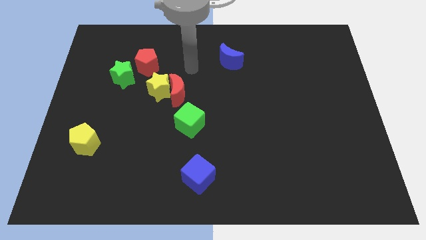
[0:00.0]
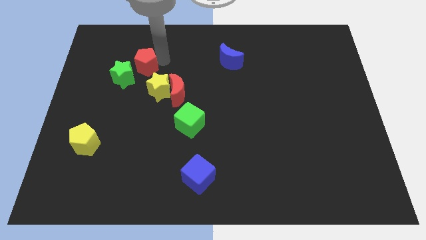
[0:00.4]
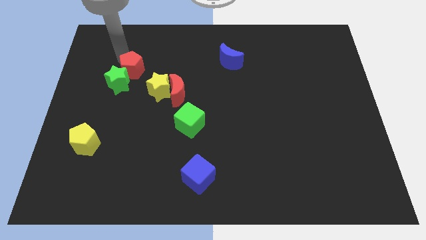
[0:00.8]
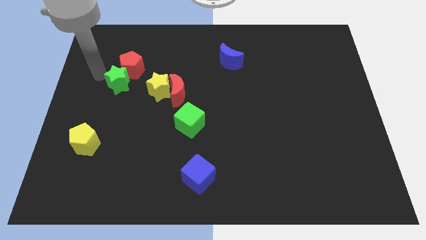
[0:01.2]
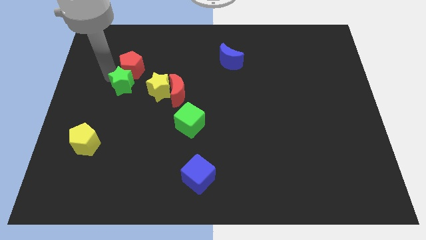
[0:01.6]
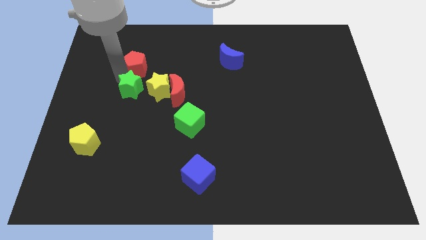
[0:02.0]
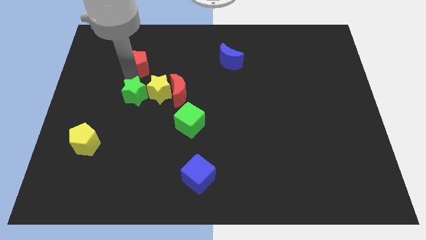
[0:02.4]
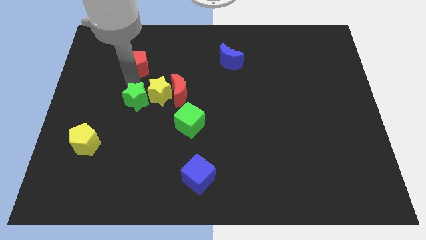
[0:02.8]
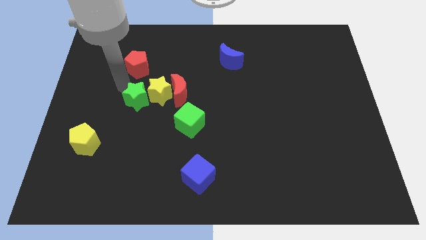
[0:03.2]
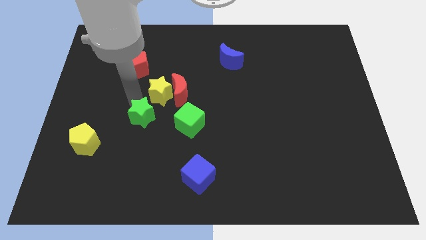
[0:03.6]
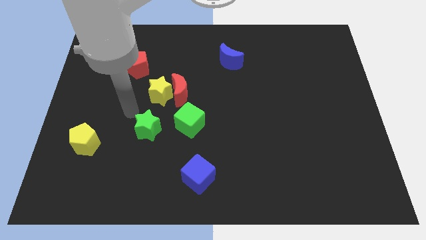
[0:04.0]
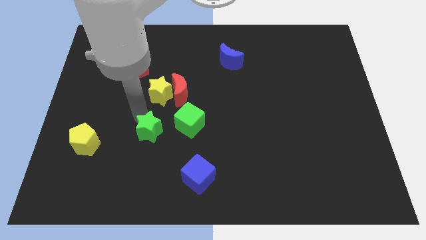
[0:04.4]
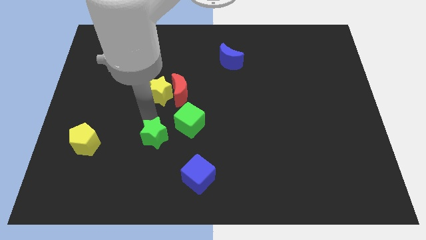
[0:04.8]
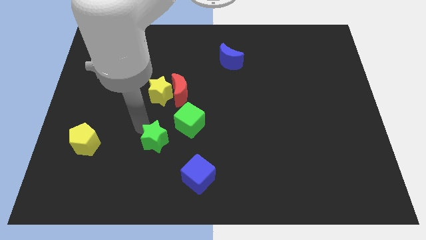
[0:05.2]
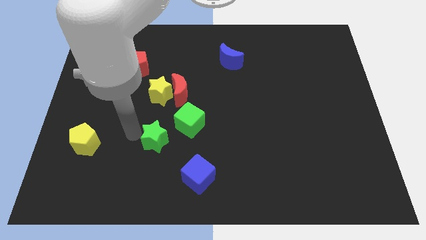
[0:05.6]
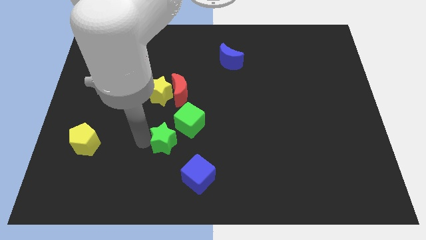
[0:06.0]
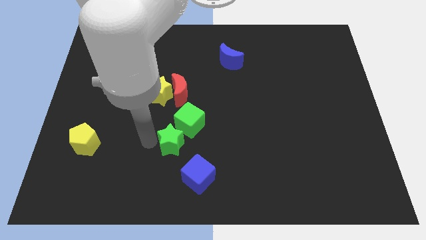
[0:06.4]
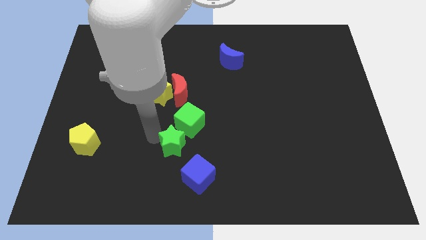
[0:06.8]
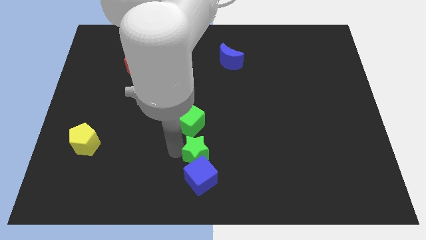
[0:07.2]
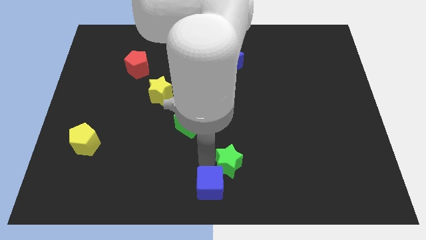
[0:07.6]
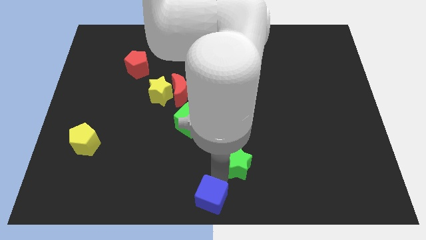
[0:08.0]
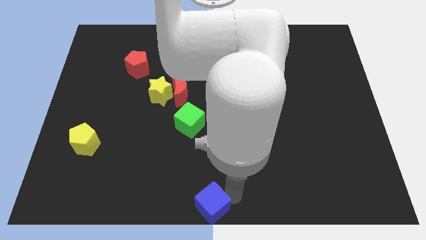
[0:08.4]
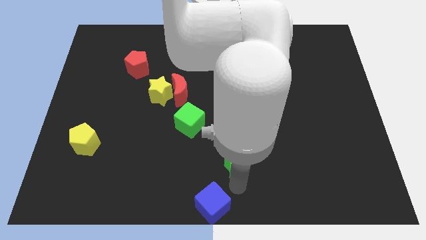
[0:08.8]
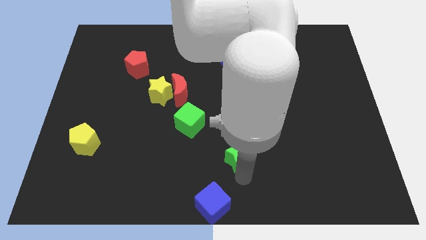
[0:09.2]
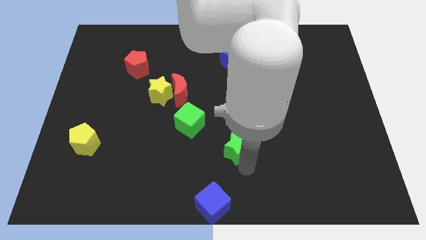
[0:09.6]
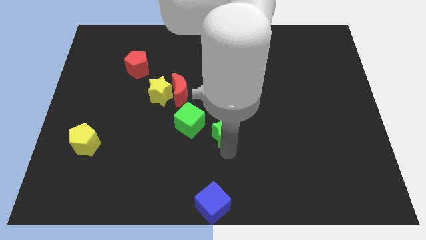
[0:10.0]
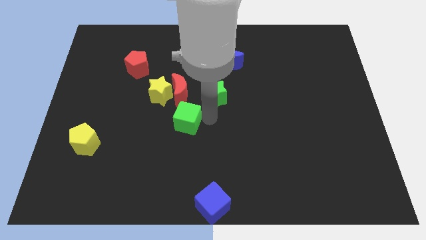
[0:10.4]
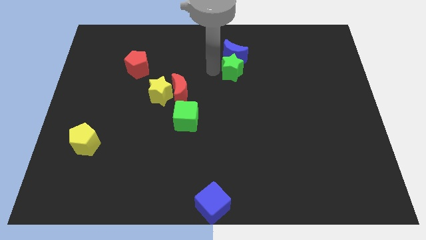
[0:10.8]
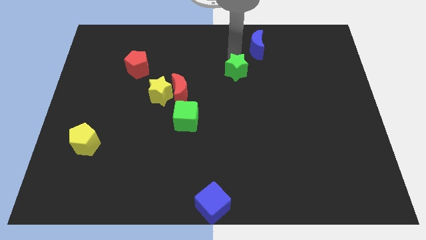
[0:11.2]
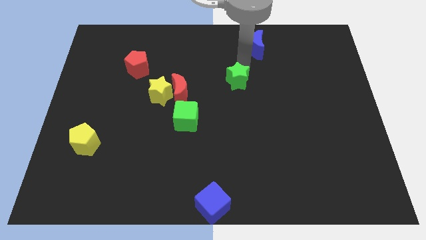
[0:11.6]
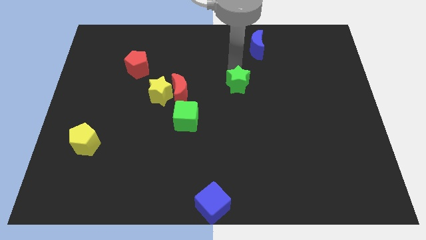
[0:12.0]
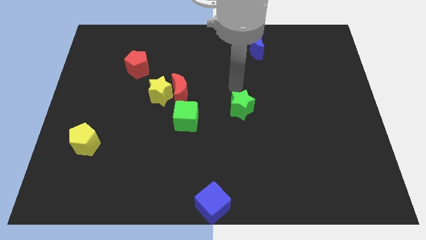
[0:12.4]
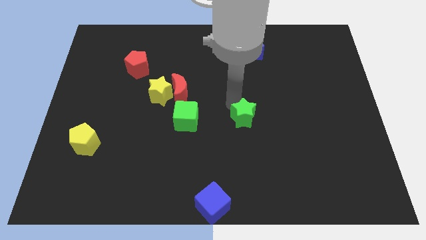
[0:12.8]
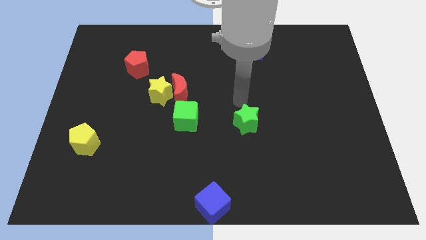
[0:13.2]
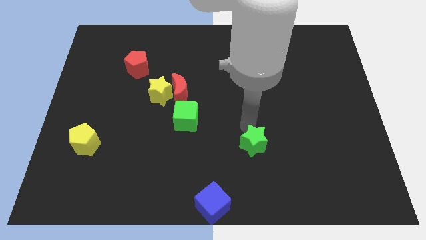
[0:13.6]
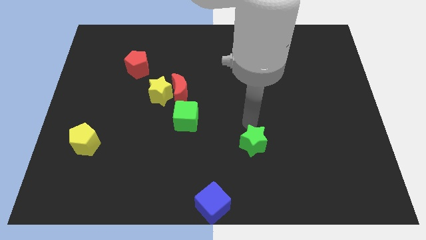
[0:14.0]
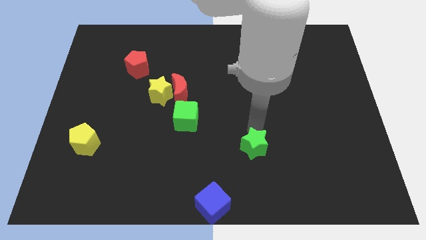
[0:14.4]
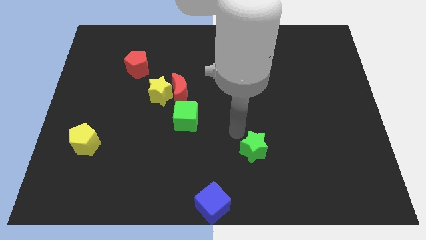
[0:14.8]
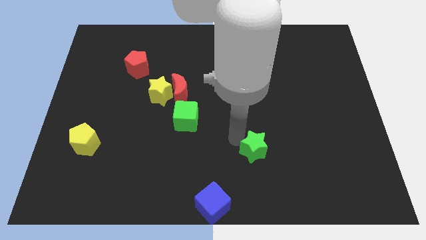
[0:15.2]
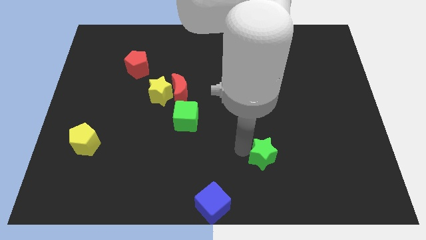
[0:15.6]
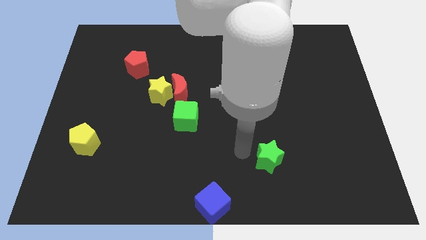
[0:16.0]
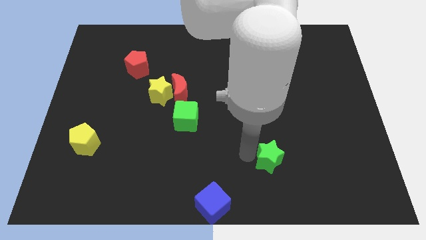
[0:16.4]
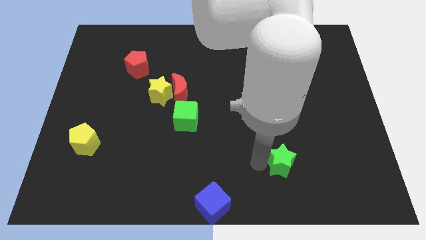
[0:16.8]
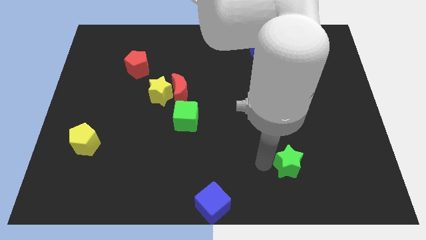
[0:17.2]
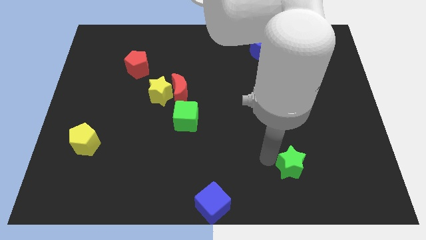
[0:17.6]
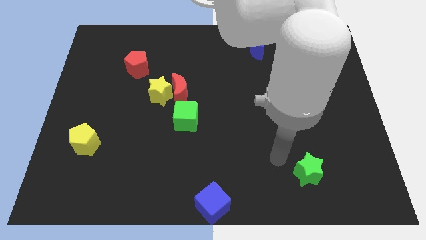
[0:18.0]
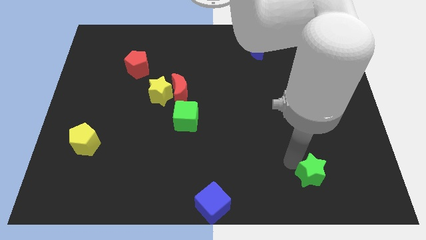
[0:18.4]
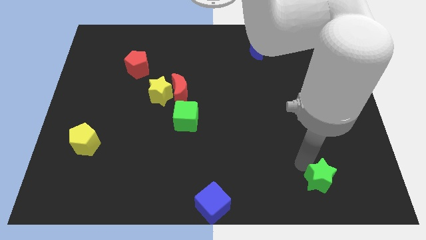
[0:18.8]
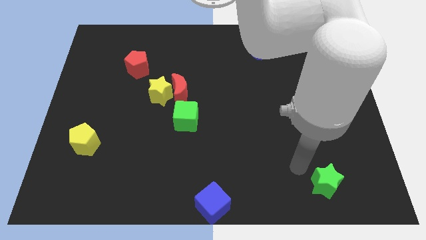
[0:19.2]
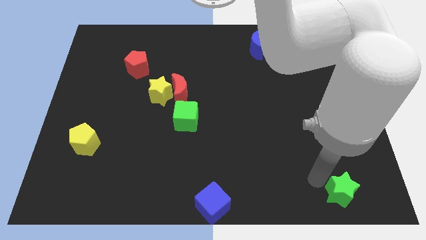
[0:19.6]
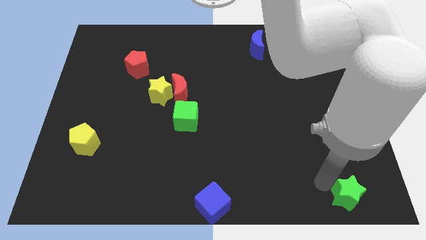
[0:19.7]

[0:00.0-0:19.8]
put the green star to the bottom right
